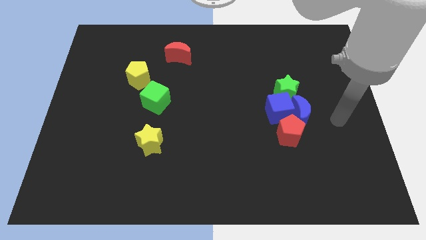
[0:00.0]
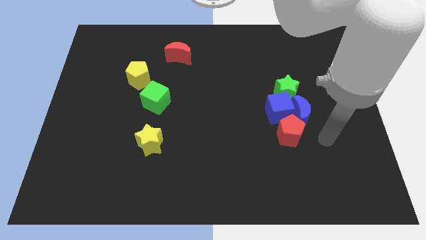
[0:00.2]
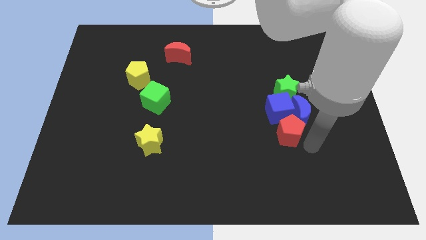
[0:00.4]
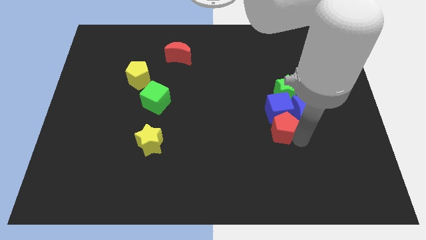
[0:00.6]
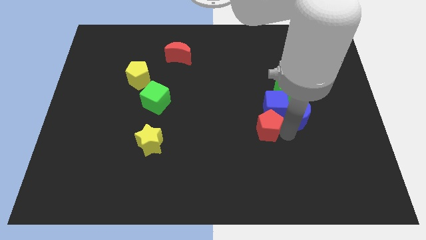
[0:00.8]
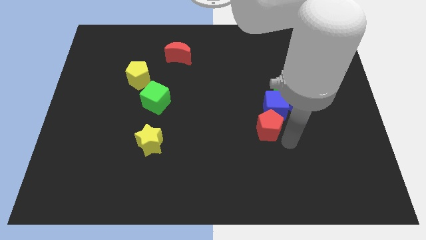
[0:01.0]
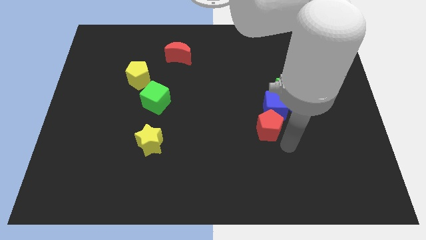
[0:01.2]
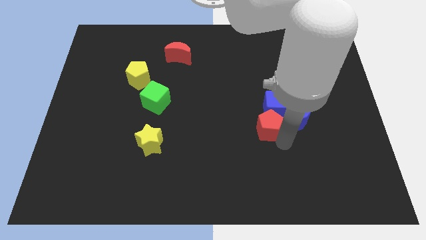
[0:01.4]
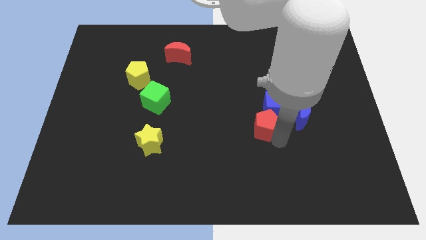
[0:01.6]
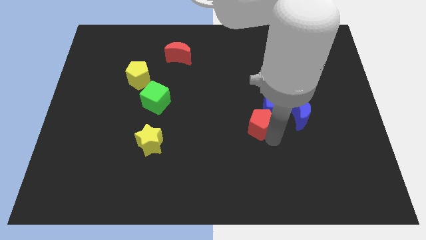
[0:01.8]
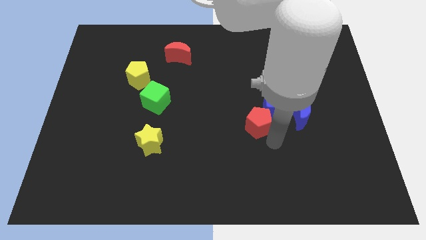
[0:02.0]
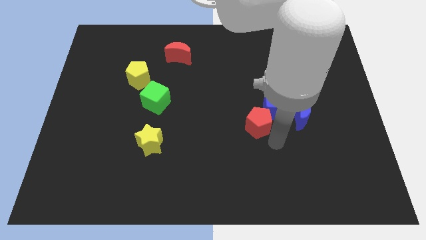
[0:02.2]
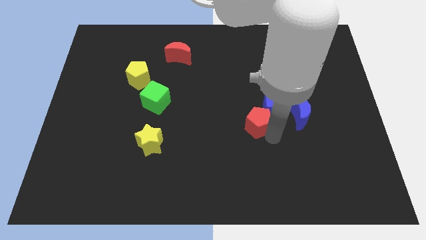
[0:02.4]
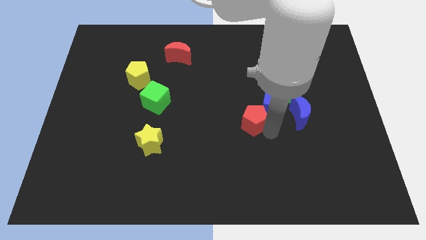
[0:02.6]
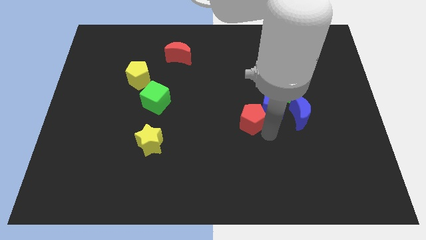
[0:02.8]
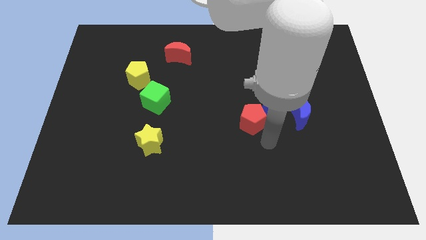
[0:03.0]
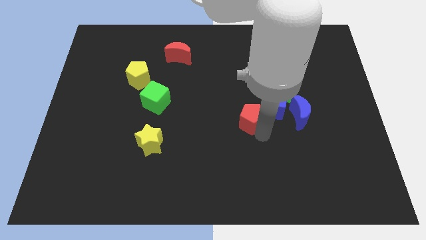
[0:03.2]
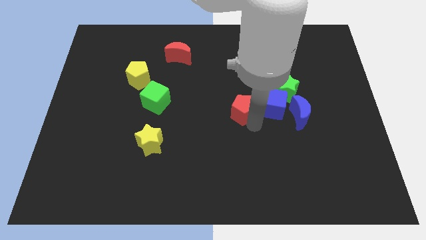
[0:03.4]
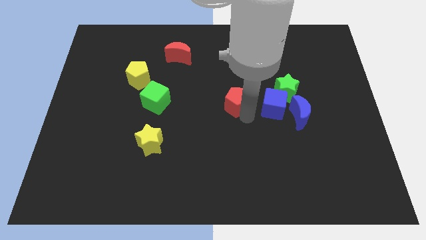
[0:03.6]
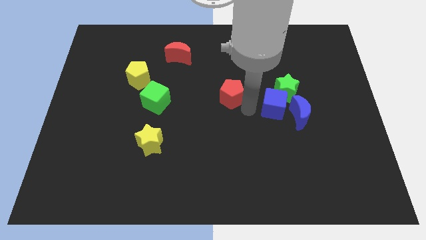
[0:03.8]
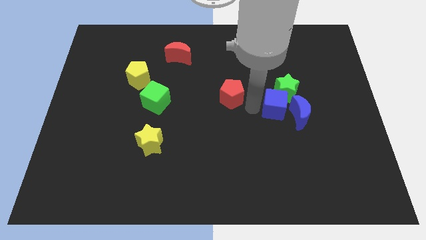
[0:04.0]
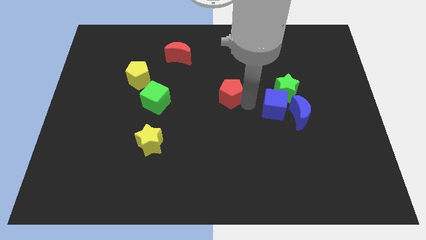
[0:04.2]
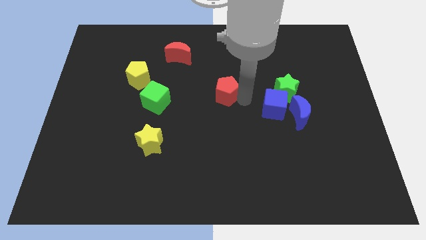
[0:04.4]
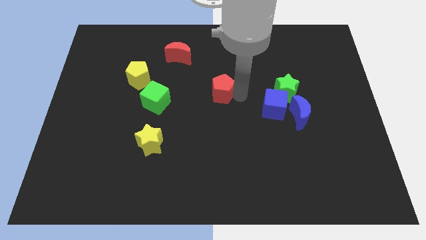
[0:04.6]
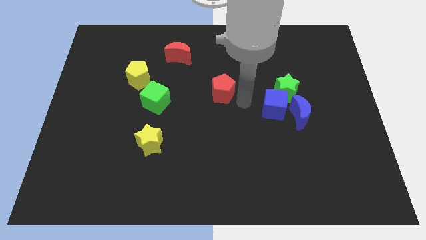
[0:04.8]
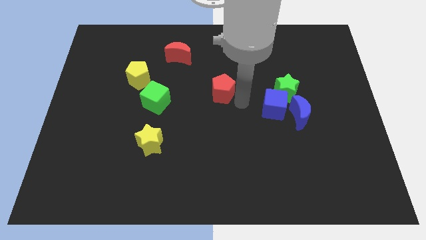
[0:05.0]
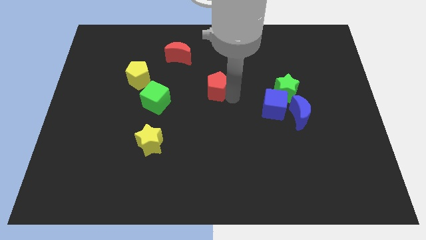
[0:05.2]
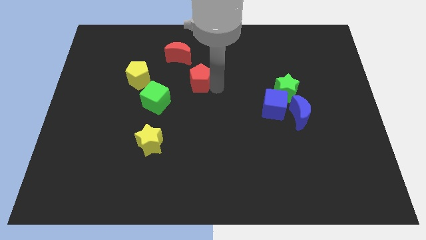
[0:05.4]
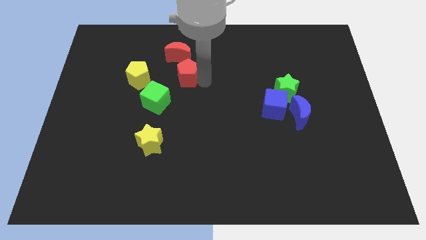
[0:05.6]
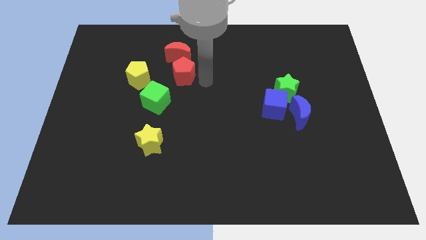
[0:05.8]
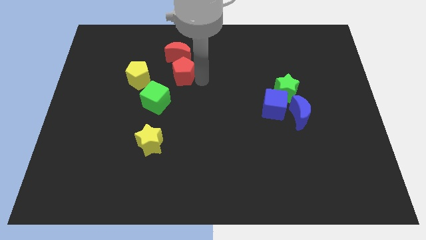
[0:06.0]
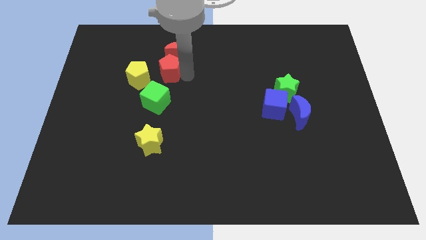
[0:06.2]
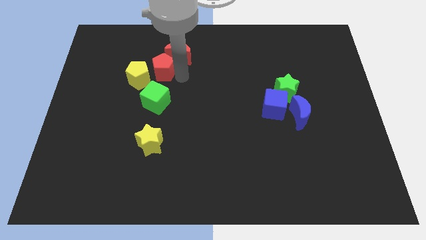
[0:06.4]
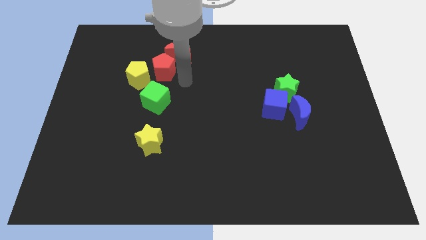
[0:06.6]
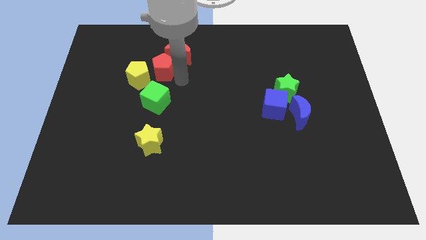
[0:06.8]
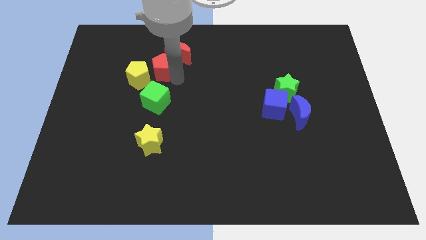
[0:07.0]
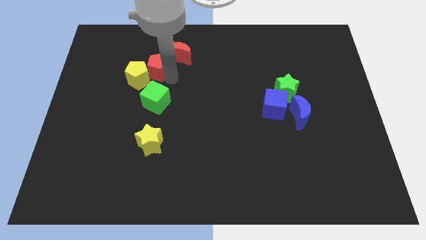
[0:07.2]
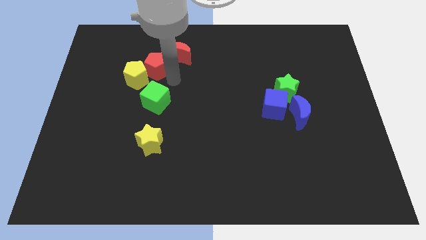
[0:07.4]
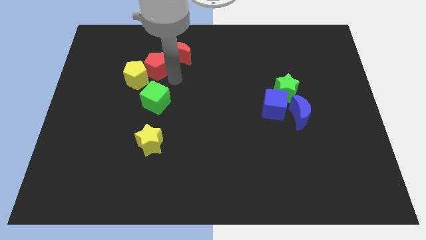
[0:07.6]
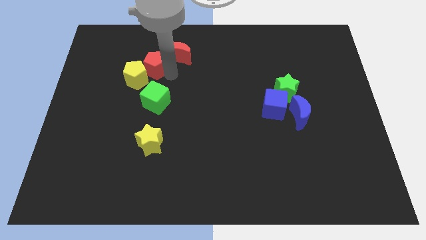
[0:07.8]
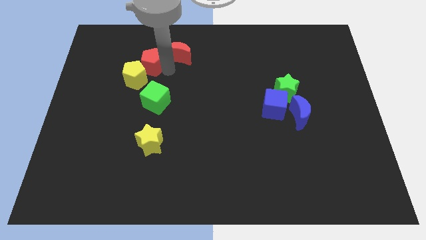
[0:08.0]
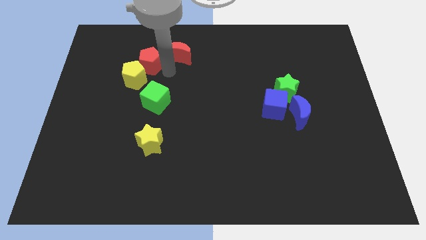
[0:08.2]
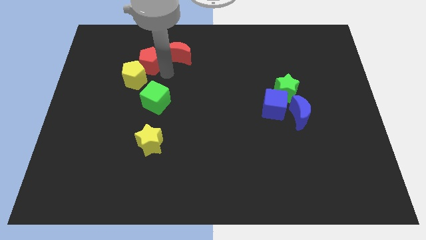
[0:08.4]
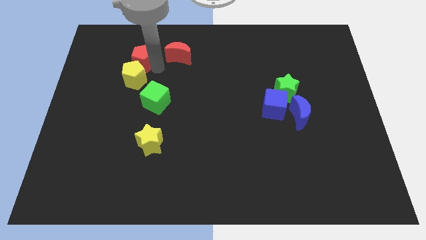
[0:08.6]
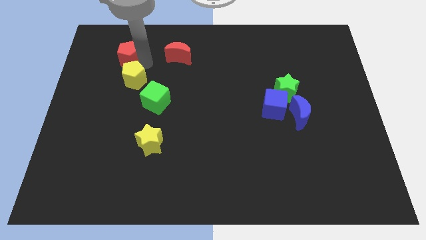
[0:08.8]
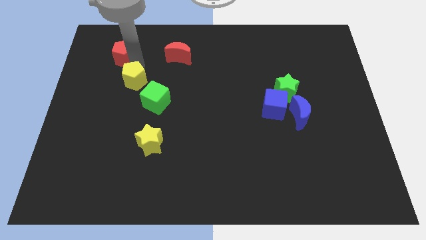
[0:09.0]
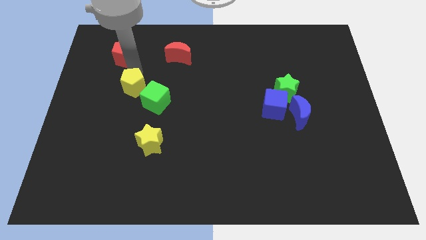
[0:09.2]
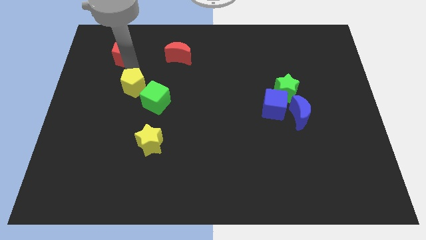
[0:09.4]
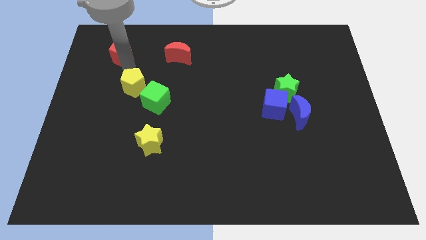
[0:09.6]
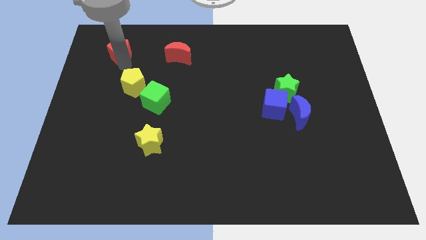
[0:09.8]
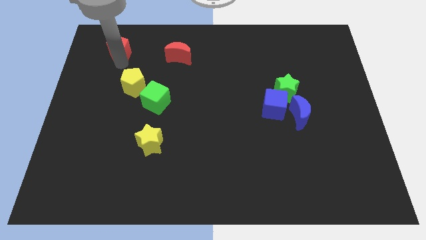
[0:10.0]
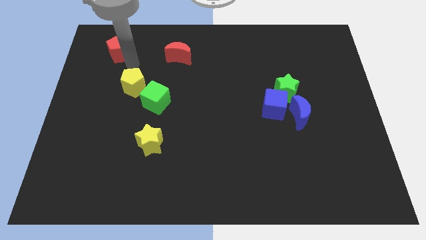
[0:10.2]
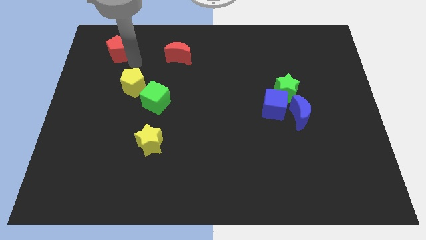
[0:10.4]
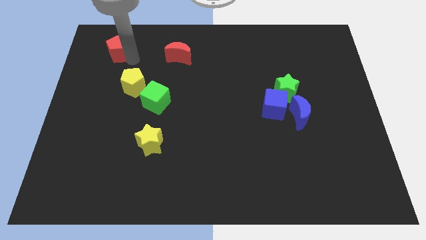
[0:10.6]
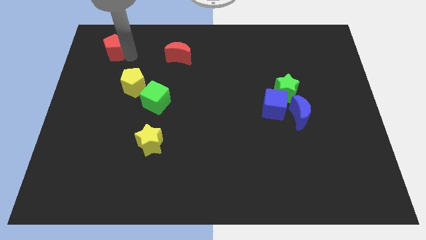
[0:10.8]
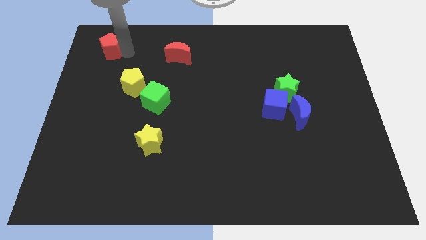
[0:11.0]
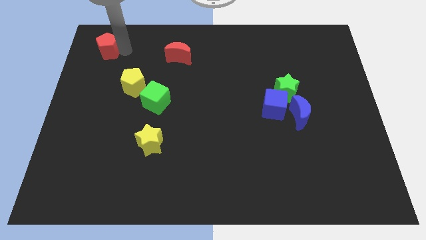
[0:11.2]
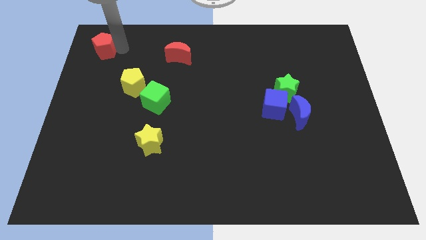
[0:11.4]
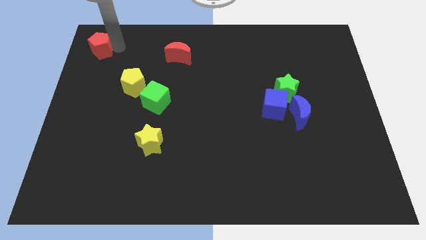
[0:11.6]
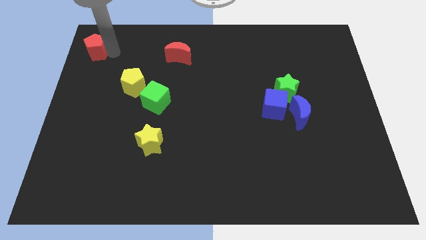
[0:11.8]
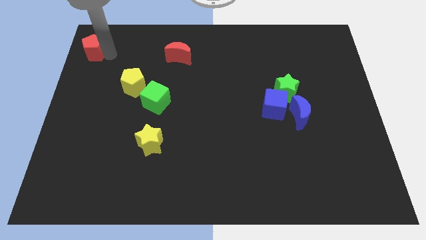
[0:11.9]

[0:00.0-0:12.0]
put the red pentagon to the upper left corner

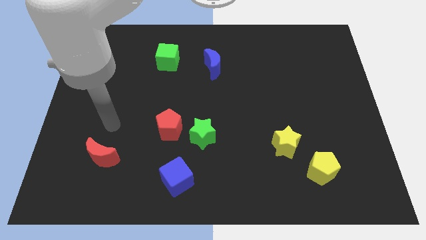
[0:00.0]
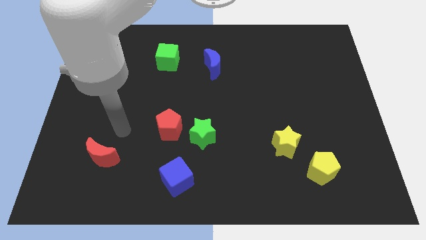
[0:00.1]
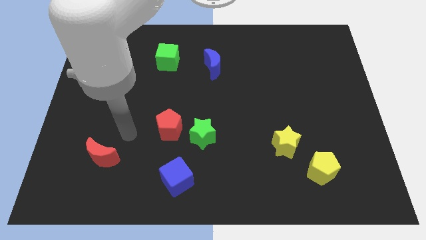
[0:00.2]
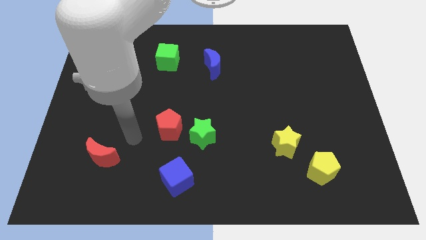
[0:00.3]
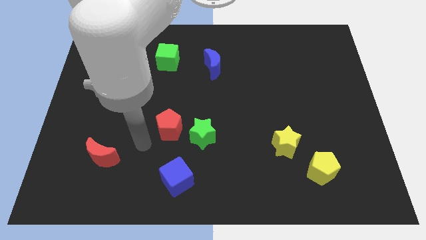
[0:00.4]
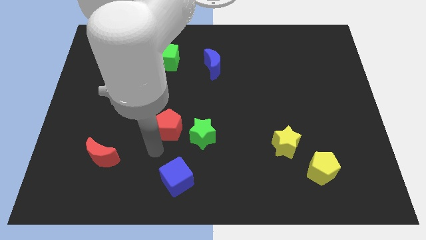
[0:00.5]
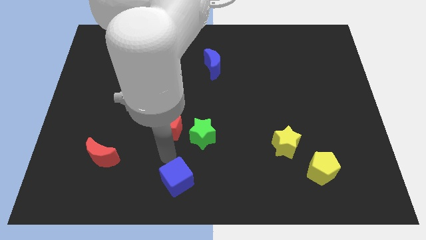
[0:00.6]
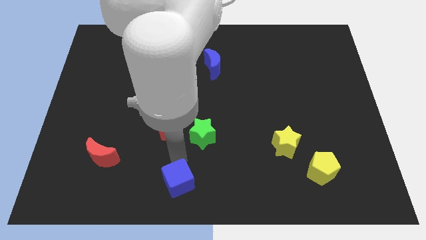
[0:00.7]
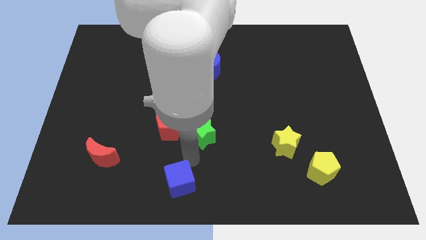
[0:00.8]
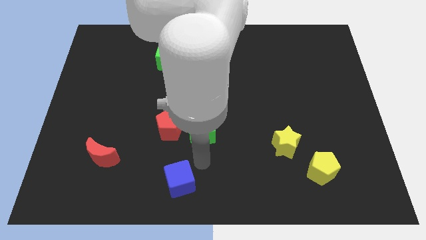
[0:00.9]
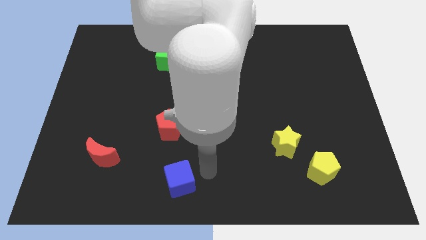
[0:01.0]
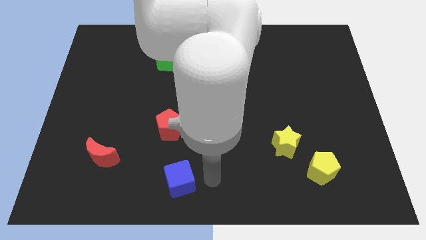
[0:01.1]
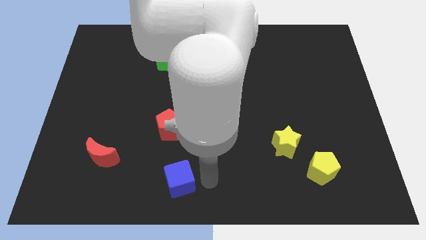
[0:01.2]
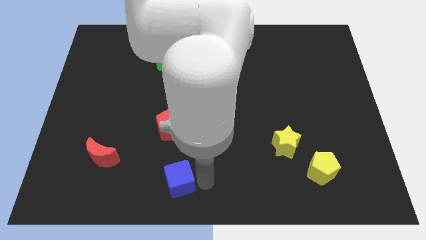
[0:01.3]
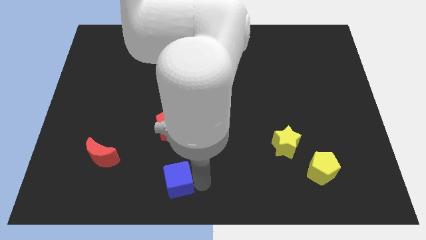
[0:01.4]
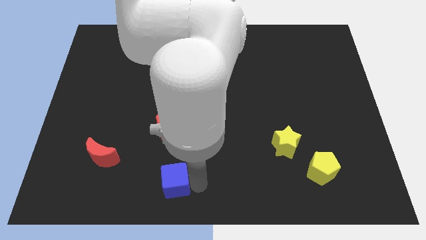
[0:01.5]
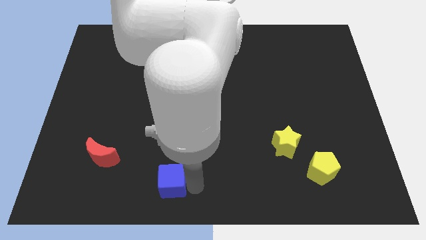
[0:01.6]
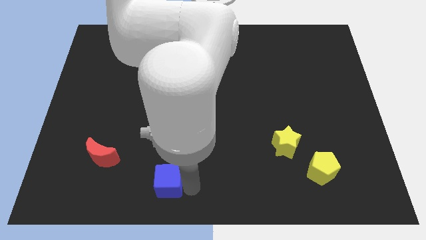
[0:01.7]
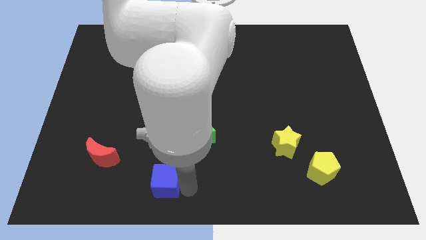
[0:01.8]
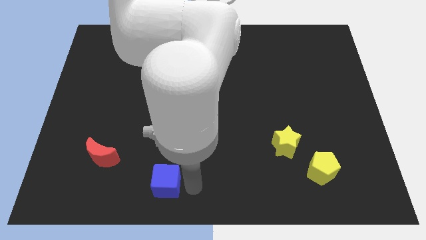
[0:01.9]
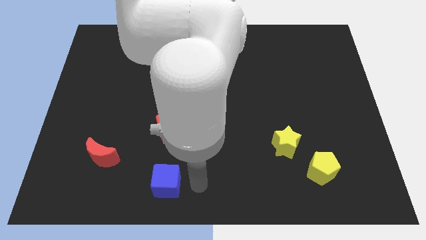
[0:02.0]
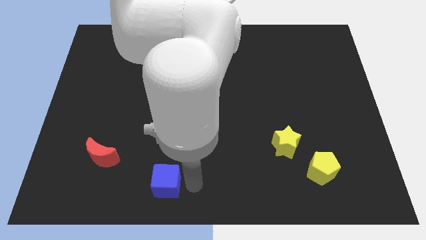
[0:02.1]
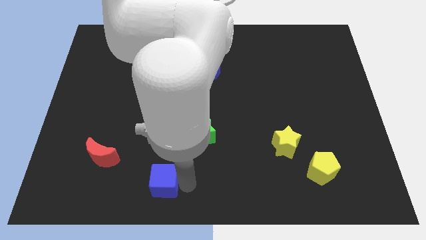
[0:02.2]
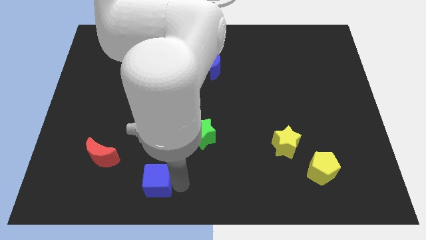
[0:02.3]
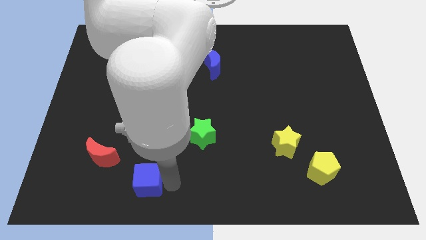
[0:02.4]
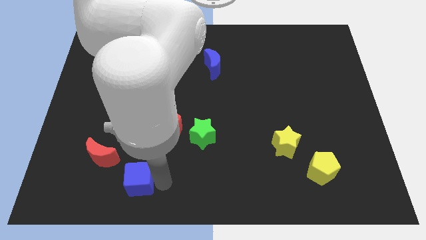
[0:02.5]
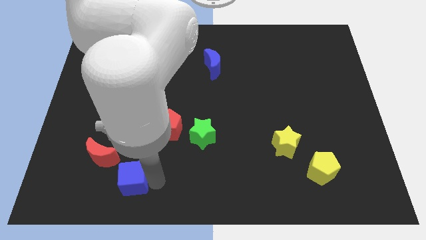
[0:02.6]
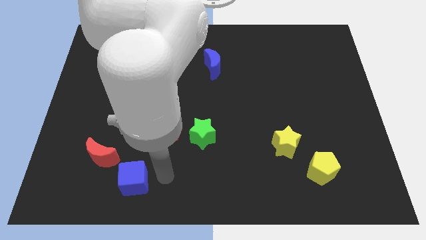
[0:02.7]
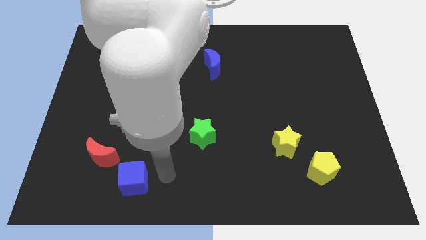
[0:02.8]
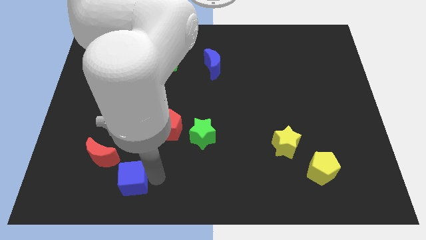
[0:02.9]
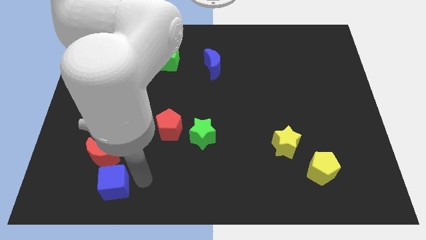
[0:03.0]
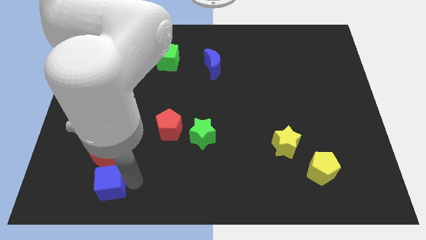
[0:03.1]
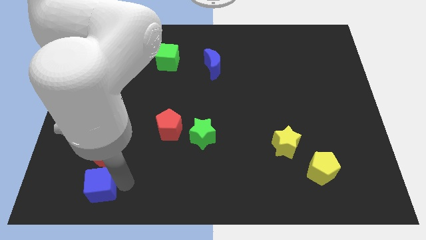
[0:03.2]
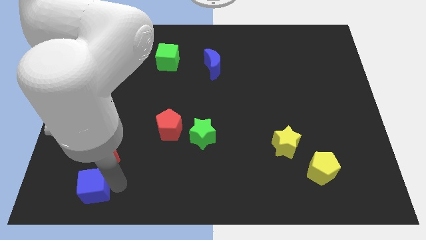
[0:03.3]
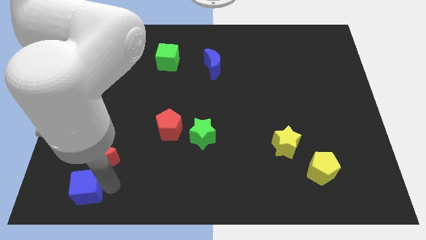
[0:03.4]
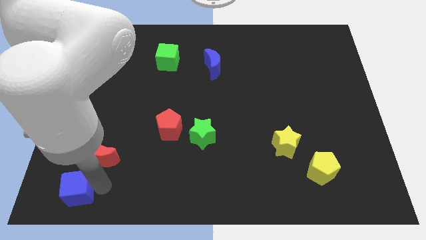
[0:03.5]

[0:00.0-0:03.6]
put the blue cube to the lower left corner
